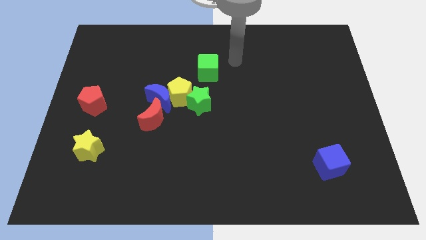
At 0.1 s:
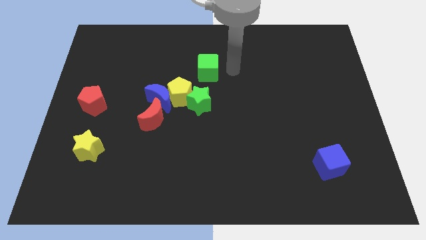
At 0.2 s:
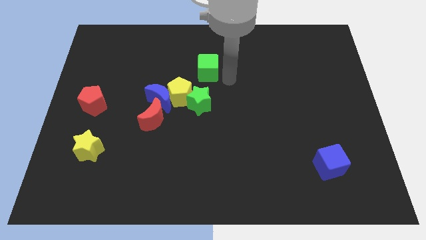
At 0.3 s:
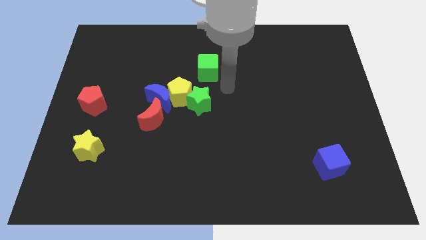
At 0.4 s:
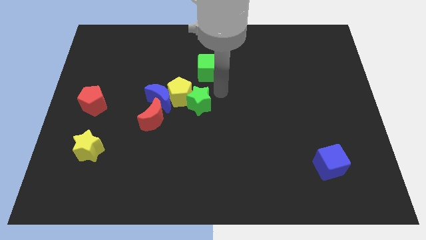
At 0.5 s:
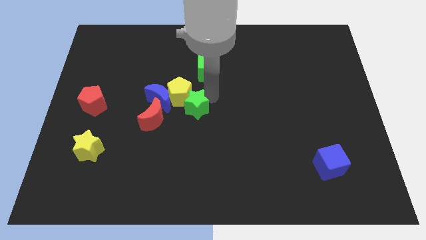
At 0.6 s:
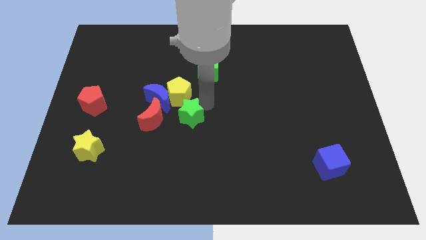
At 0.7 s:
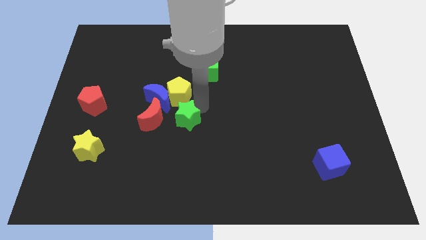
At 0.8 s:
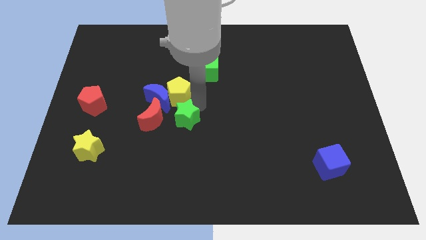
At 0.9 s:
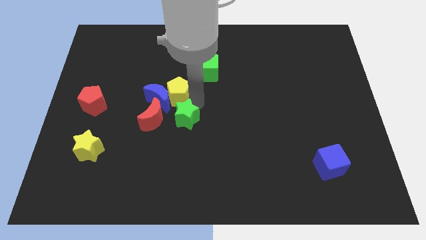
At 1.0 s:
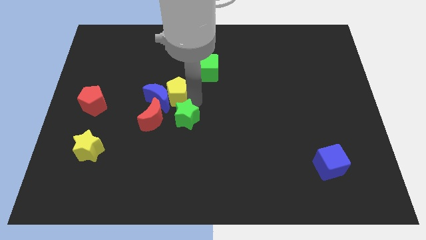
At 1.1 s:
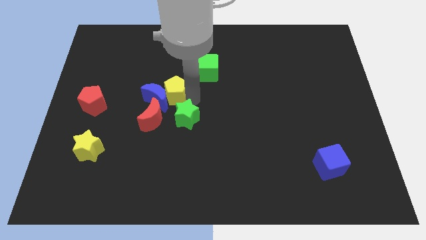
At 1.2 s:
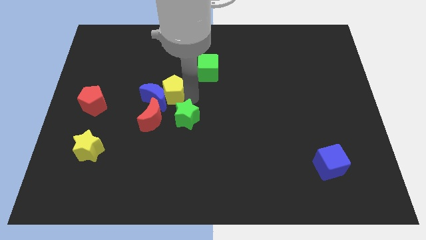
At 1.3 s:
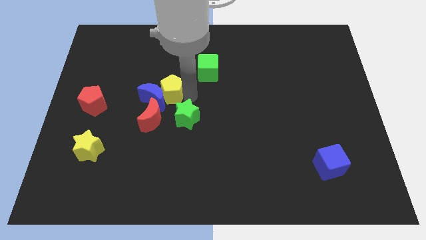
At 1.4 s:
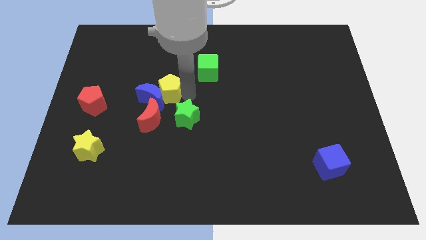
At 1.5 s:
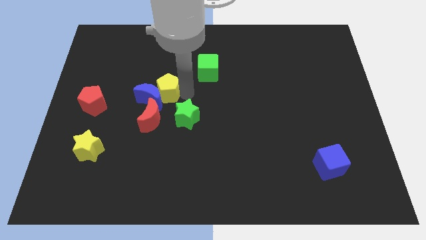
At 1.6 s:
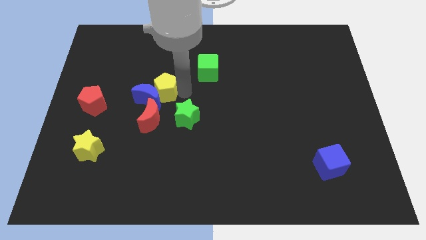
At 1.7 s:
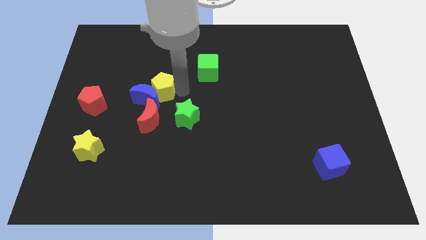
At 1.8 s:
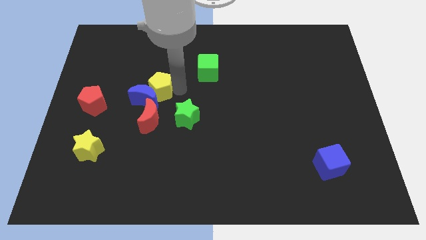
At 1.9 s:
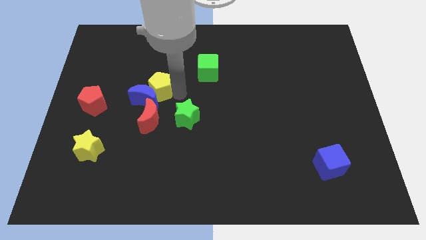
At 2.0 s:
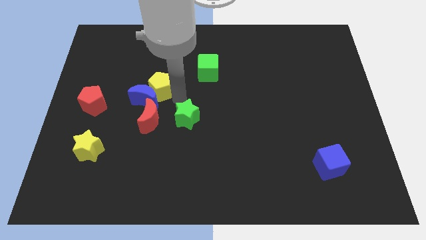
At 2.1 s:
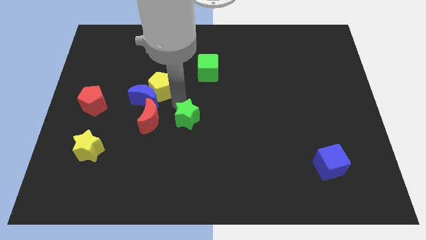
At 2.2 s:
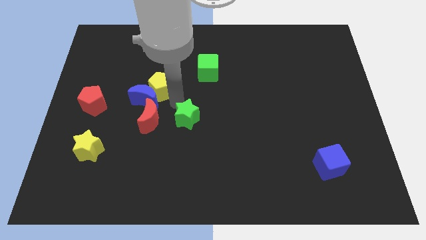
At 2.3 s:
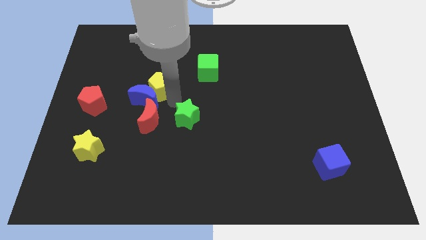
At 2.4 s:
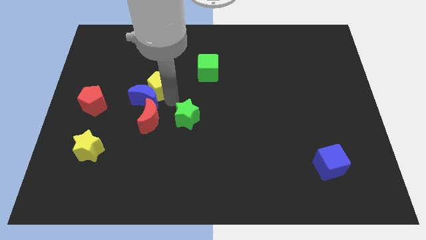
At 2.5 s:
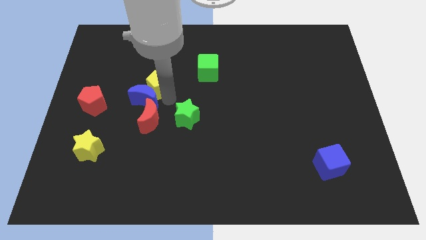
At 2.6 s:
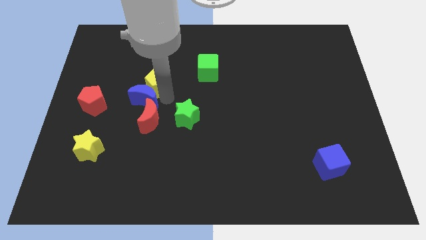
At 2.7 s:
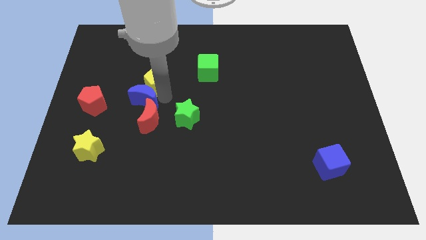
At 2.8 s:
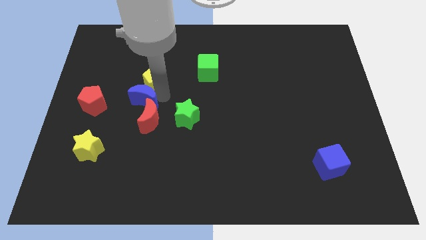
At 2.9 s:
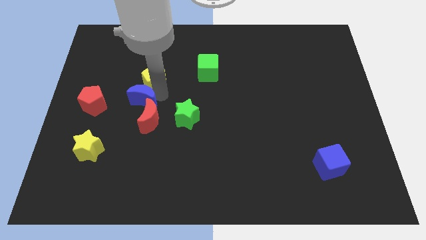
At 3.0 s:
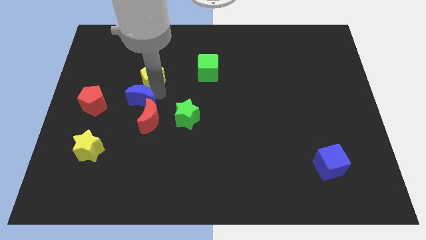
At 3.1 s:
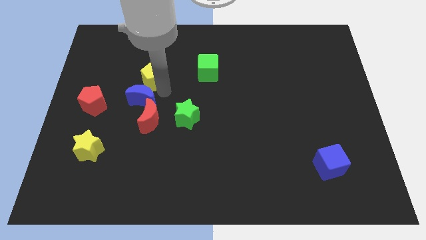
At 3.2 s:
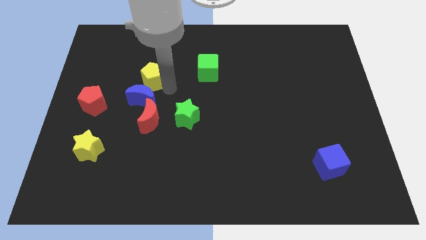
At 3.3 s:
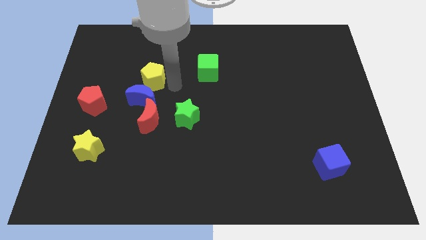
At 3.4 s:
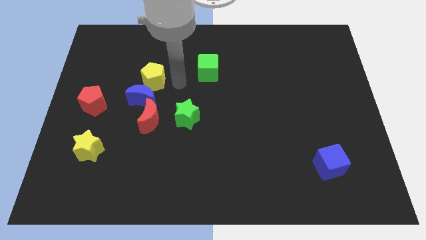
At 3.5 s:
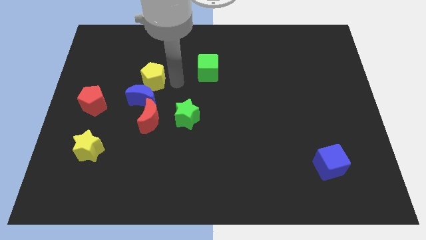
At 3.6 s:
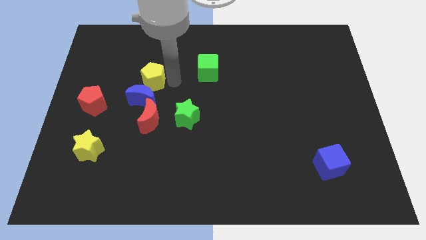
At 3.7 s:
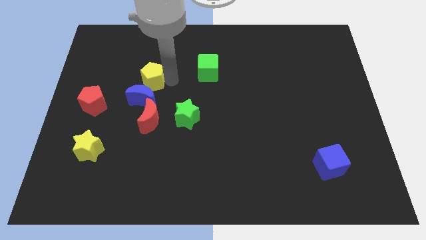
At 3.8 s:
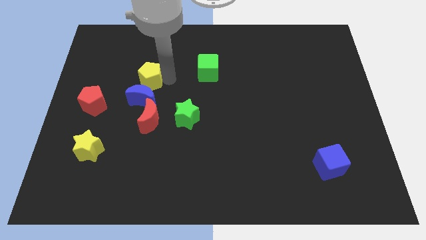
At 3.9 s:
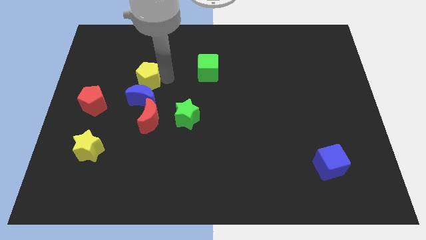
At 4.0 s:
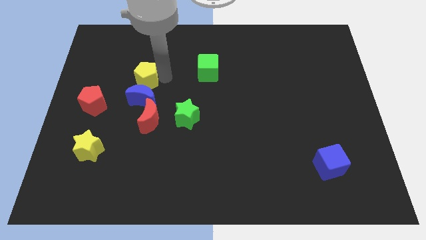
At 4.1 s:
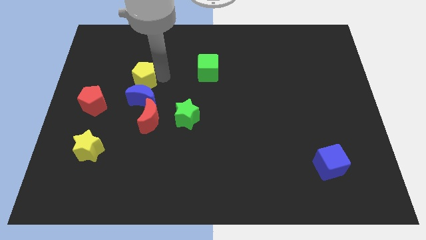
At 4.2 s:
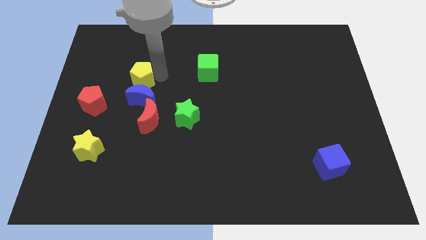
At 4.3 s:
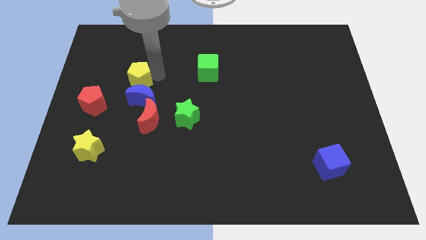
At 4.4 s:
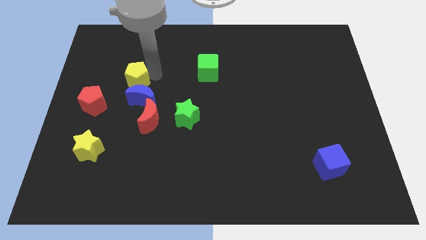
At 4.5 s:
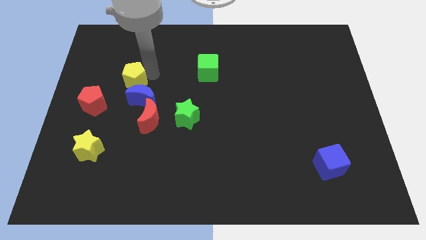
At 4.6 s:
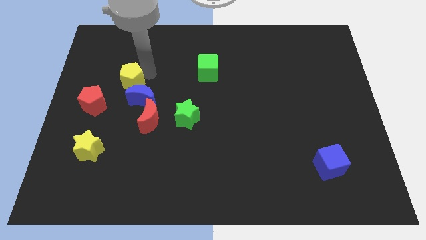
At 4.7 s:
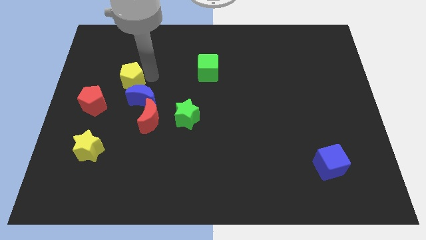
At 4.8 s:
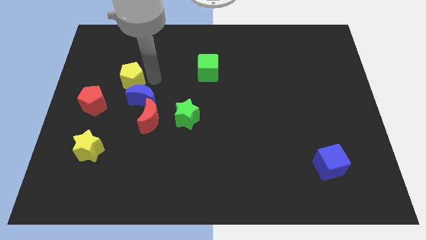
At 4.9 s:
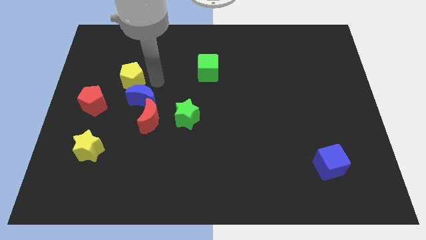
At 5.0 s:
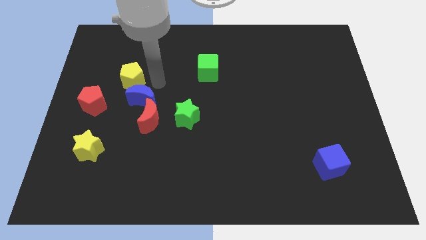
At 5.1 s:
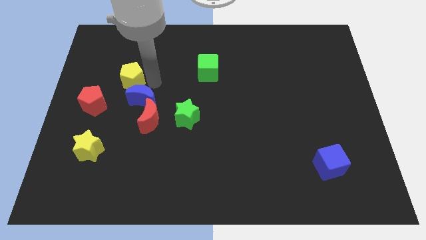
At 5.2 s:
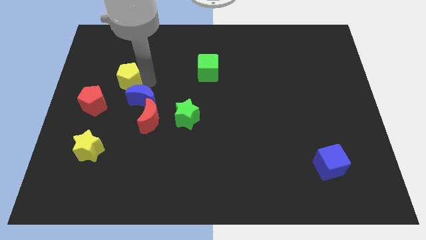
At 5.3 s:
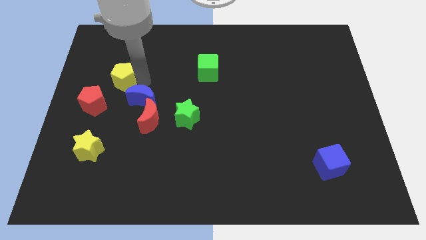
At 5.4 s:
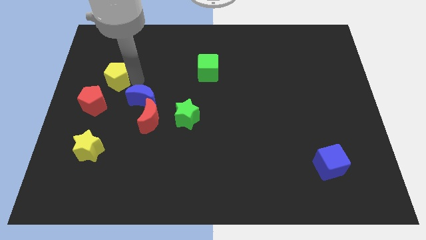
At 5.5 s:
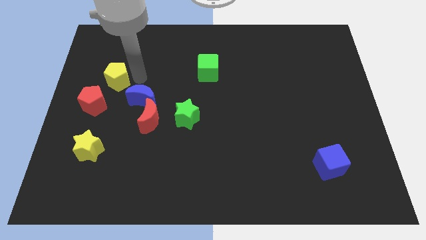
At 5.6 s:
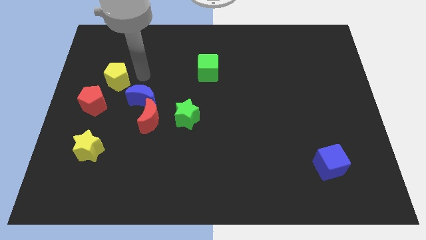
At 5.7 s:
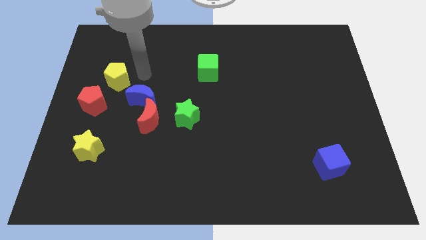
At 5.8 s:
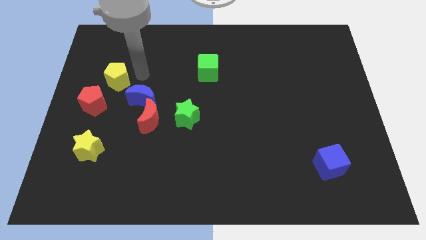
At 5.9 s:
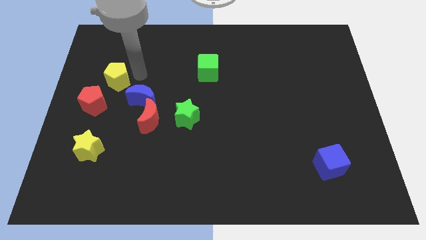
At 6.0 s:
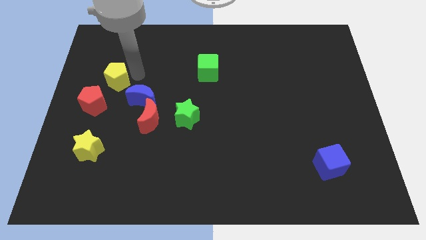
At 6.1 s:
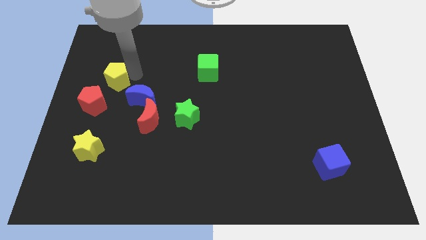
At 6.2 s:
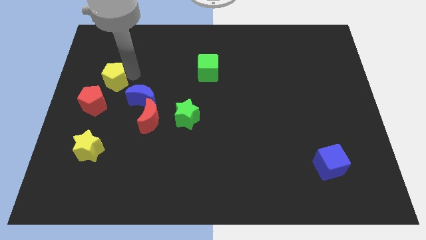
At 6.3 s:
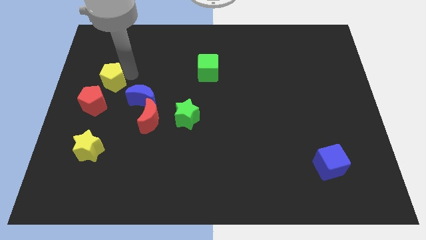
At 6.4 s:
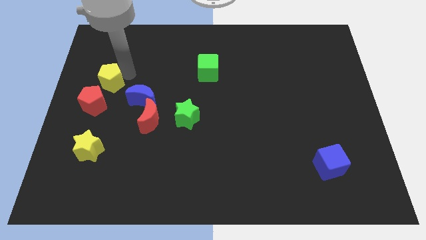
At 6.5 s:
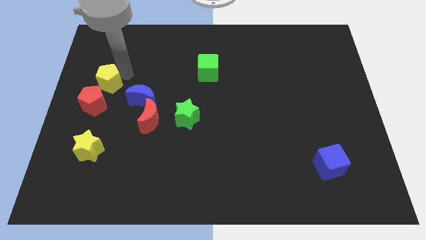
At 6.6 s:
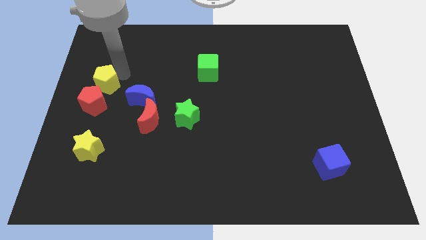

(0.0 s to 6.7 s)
slide the yellow pentagon to the center left
